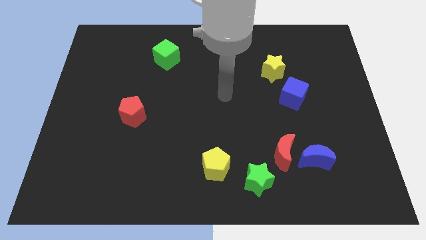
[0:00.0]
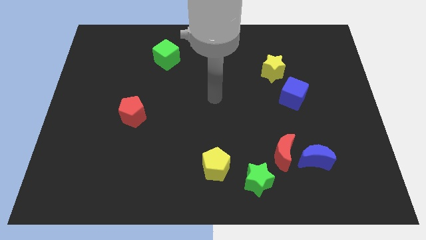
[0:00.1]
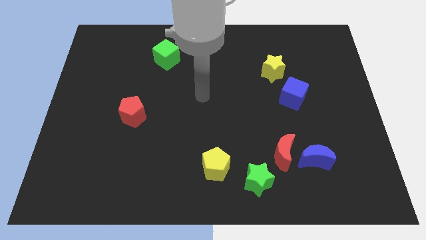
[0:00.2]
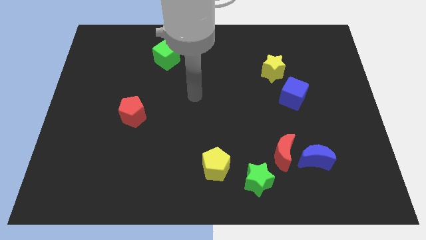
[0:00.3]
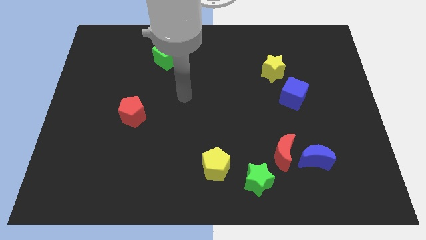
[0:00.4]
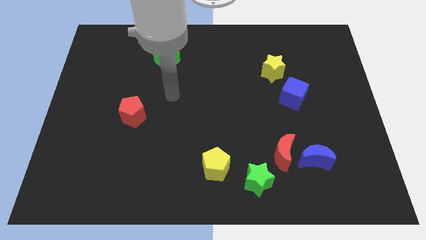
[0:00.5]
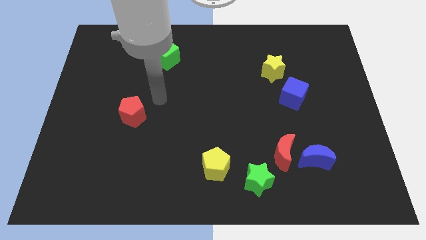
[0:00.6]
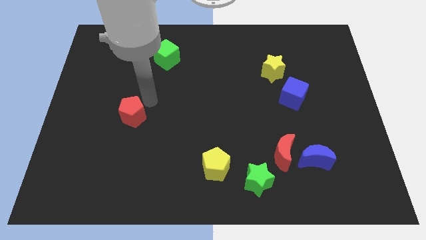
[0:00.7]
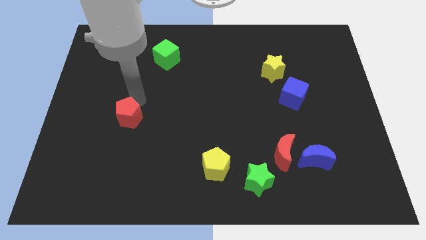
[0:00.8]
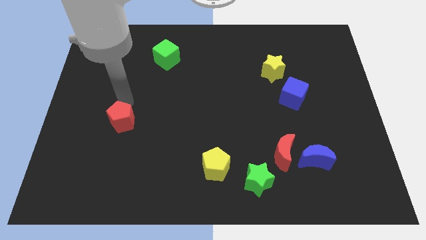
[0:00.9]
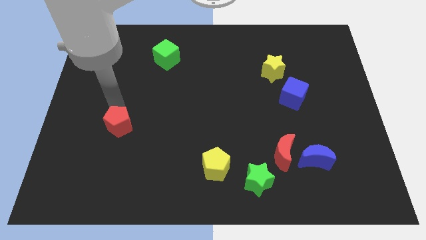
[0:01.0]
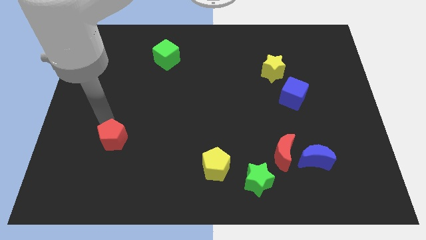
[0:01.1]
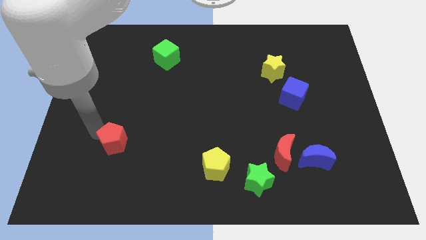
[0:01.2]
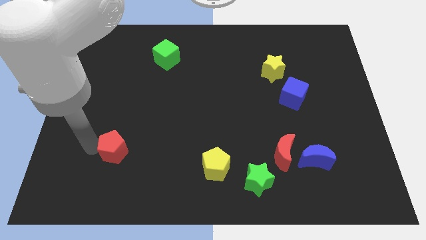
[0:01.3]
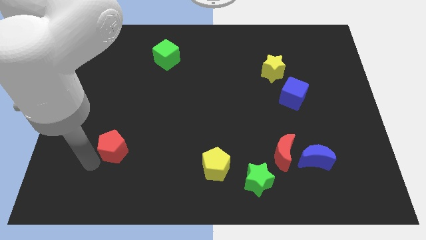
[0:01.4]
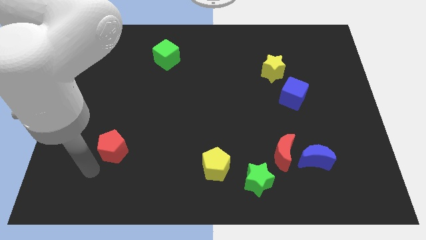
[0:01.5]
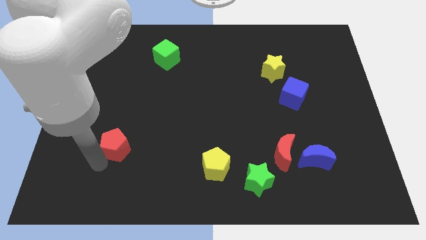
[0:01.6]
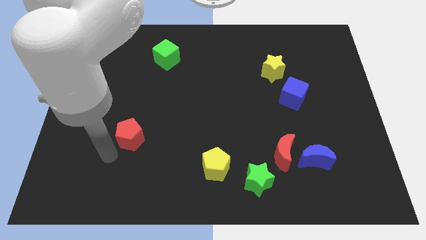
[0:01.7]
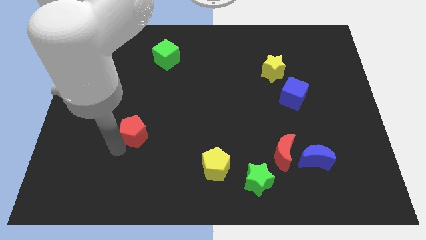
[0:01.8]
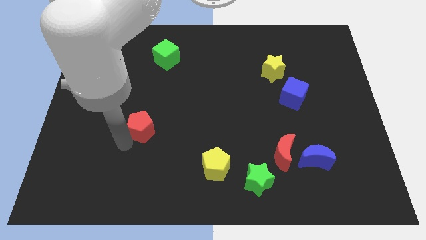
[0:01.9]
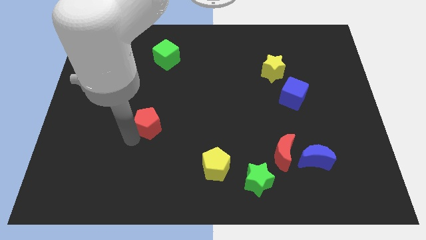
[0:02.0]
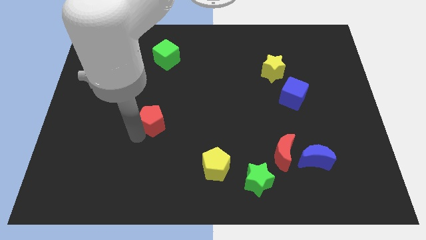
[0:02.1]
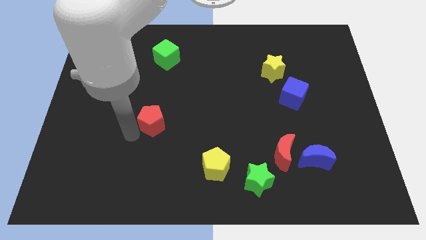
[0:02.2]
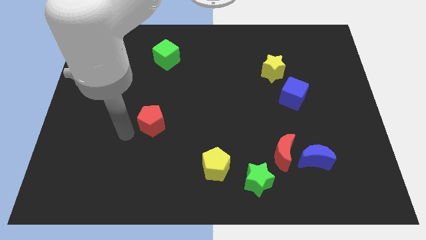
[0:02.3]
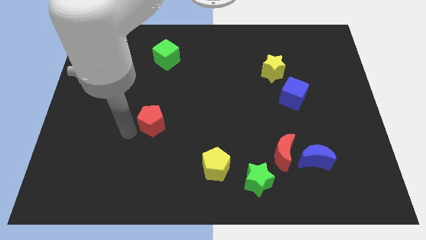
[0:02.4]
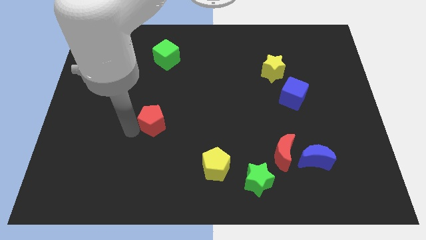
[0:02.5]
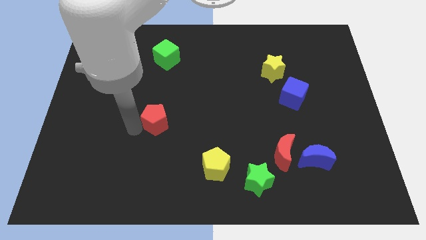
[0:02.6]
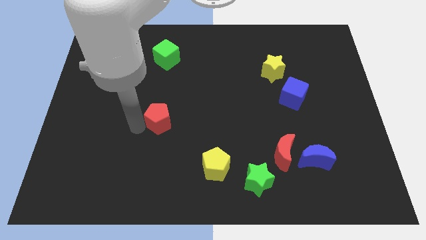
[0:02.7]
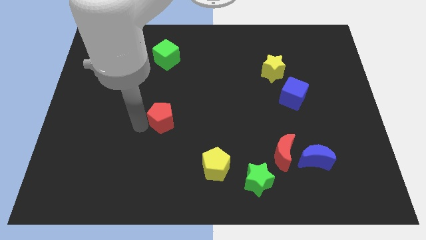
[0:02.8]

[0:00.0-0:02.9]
slightly move the red pentagon right

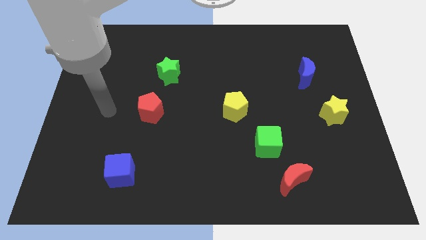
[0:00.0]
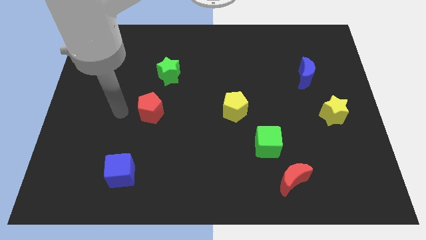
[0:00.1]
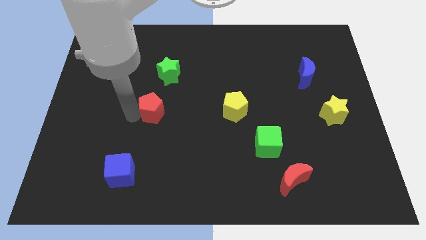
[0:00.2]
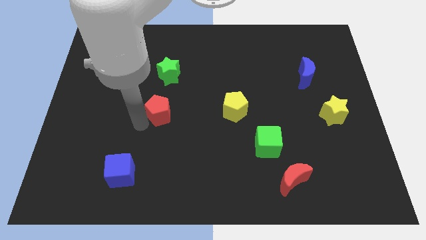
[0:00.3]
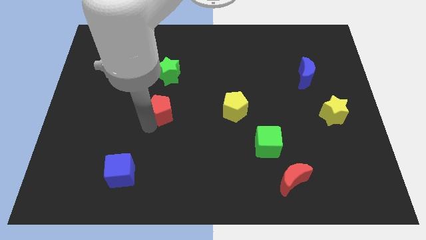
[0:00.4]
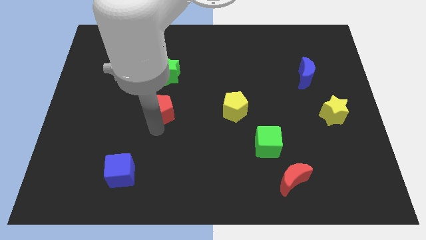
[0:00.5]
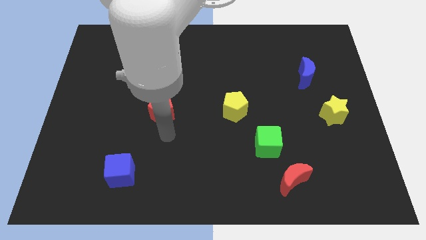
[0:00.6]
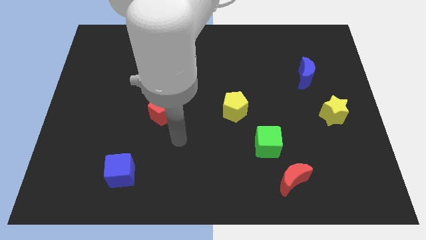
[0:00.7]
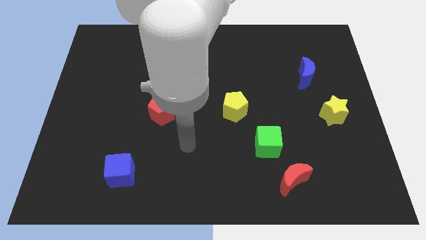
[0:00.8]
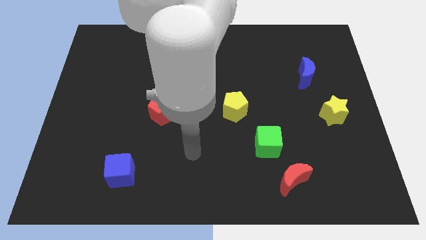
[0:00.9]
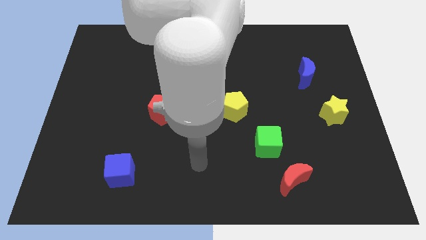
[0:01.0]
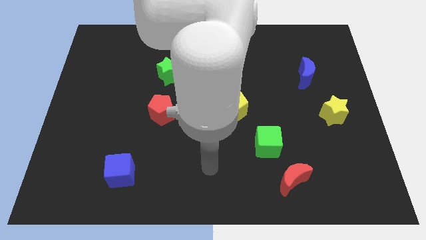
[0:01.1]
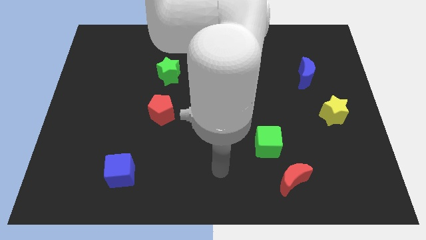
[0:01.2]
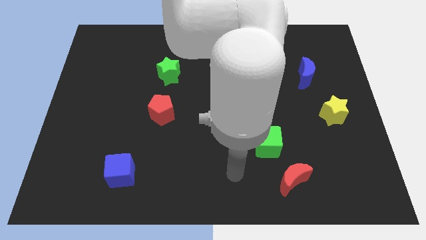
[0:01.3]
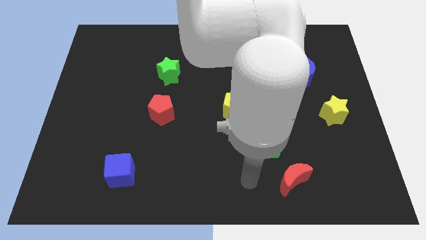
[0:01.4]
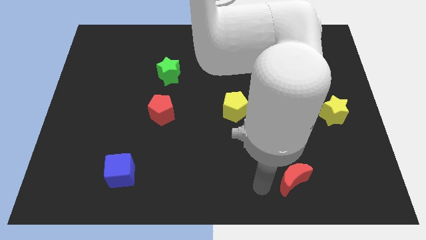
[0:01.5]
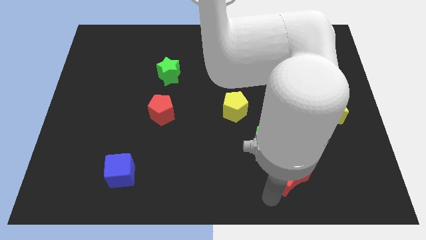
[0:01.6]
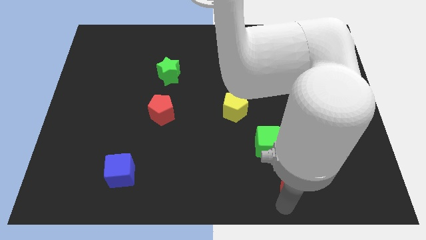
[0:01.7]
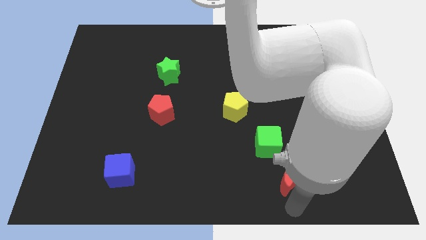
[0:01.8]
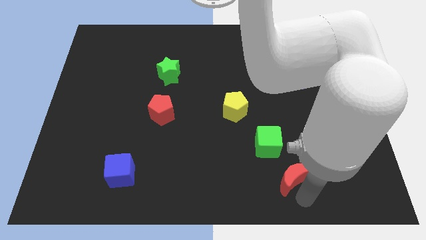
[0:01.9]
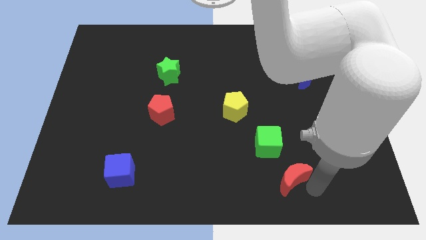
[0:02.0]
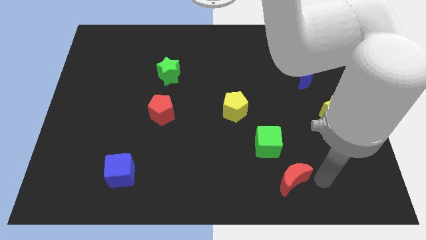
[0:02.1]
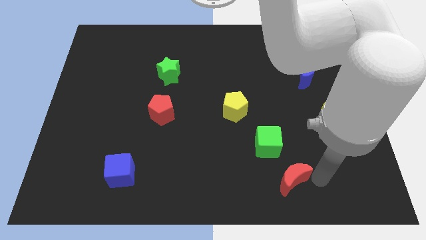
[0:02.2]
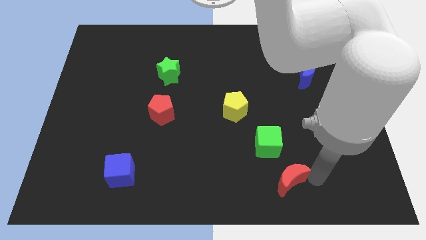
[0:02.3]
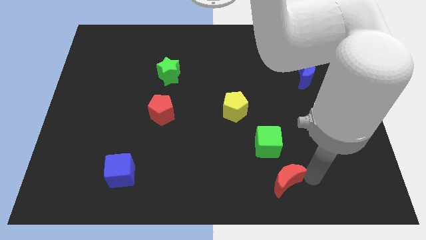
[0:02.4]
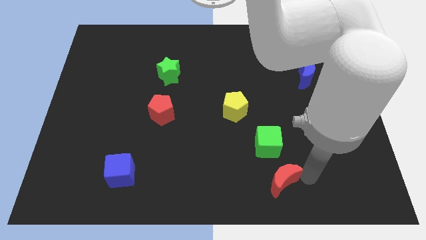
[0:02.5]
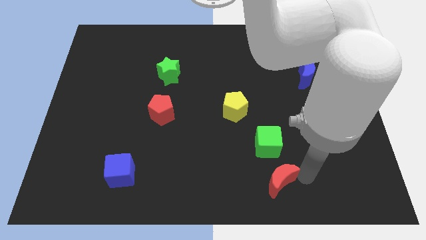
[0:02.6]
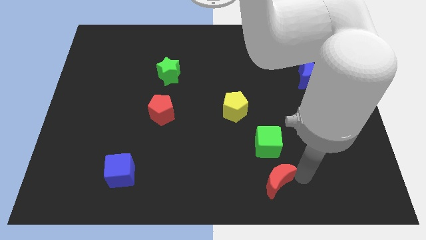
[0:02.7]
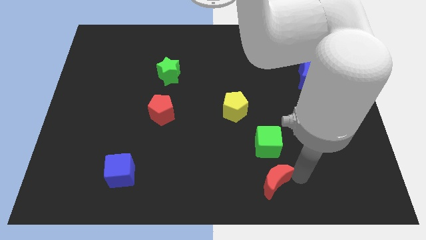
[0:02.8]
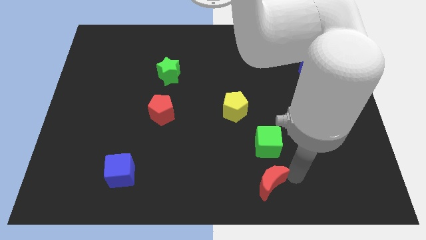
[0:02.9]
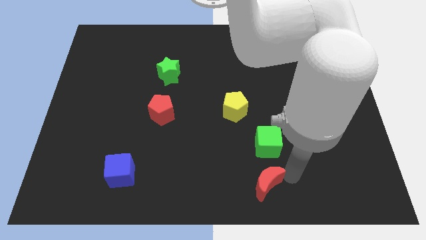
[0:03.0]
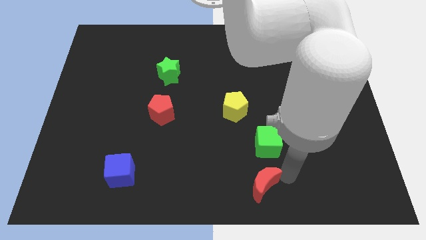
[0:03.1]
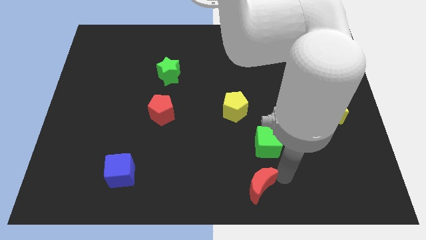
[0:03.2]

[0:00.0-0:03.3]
move the red moon to the left somewhat

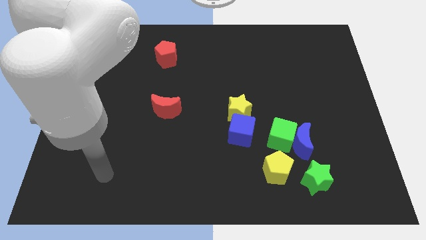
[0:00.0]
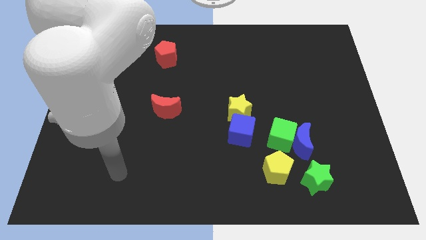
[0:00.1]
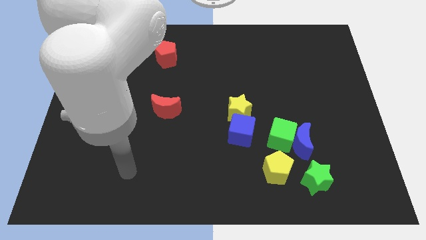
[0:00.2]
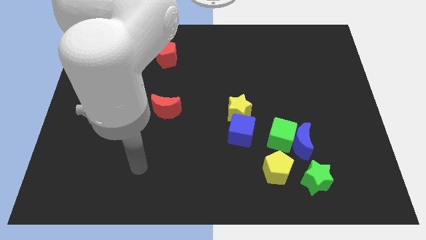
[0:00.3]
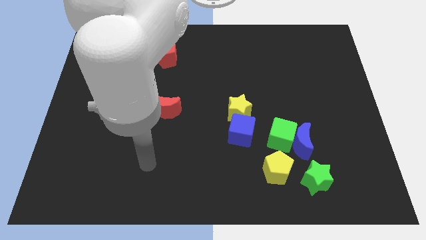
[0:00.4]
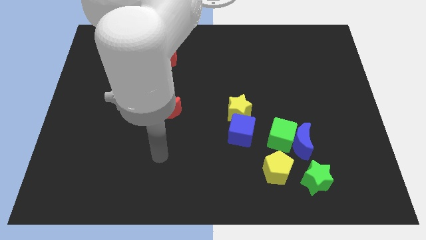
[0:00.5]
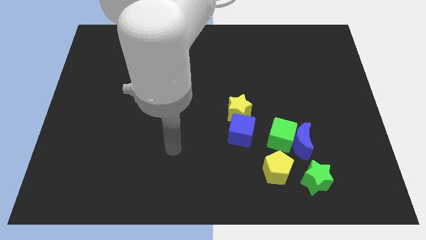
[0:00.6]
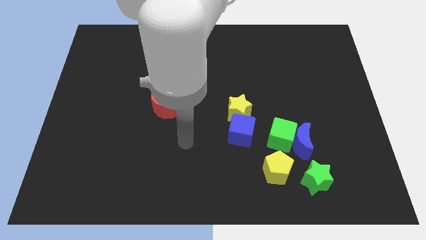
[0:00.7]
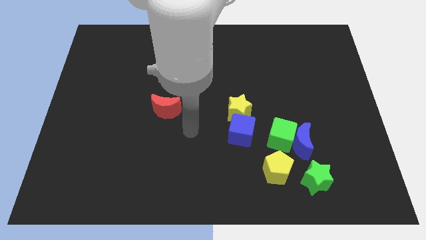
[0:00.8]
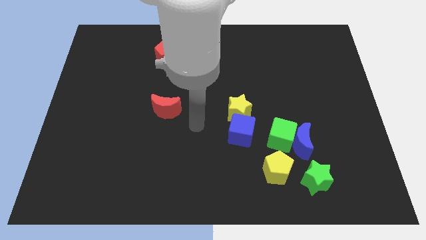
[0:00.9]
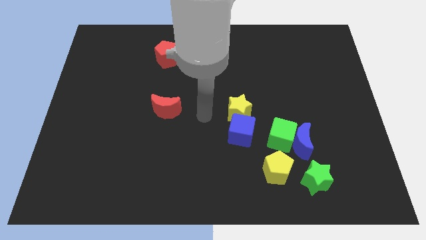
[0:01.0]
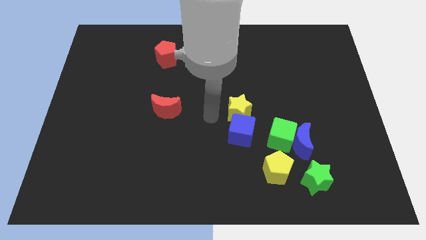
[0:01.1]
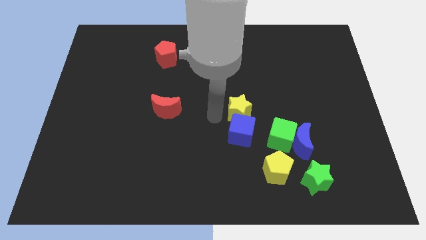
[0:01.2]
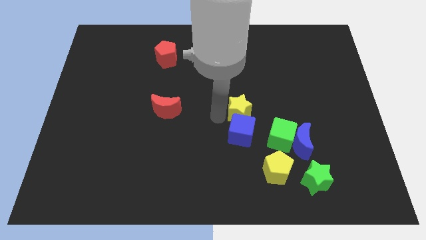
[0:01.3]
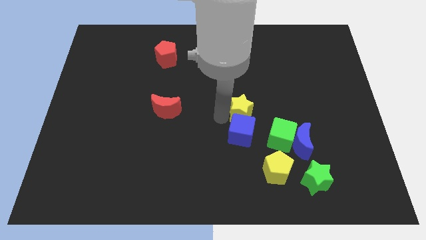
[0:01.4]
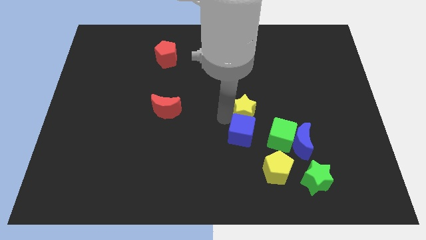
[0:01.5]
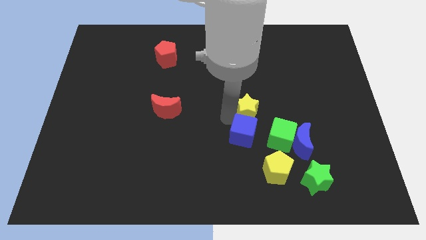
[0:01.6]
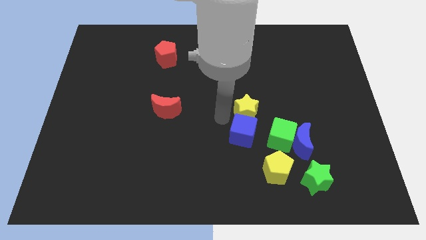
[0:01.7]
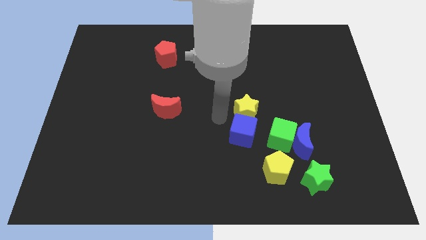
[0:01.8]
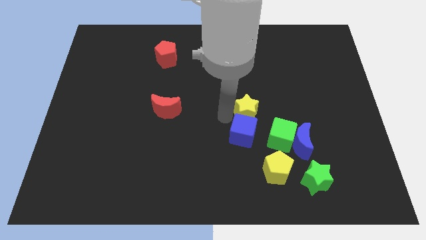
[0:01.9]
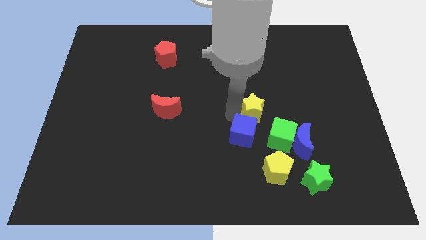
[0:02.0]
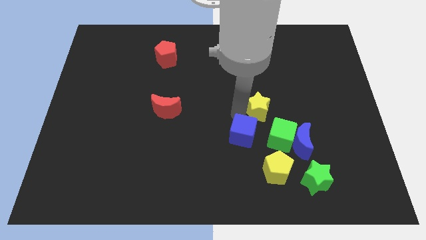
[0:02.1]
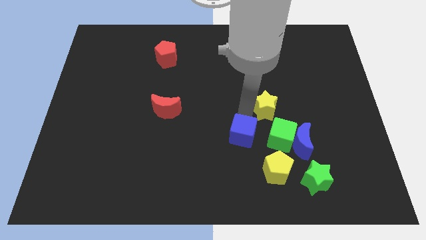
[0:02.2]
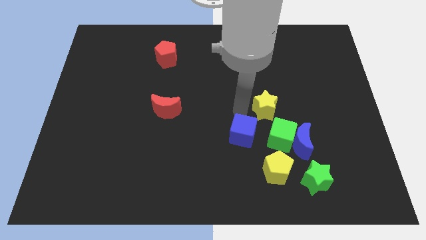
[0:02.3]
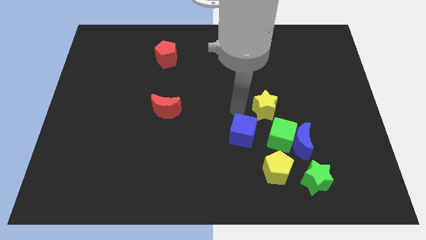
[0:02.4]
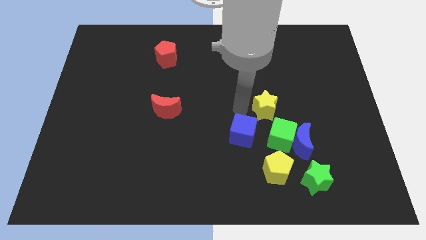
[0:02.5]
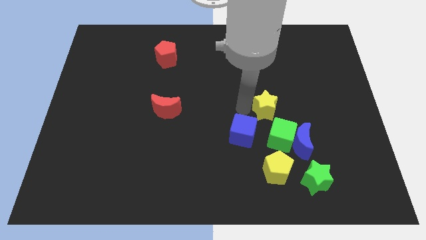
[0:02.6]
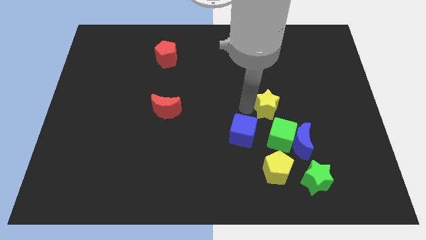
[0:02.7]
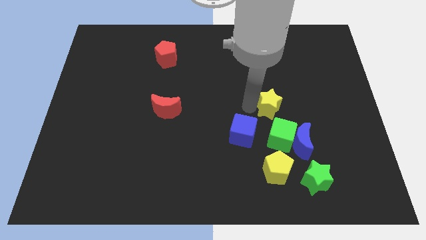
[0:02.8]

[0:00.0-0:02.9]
slightly slide the yellow star right
